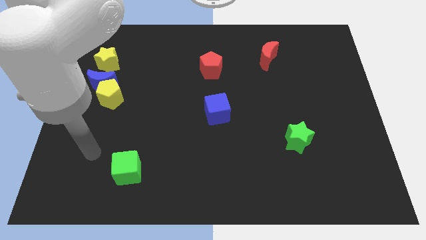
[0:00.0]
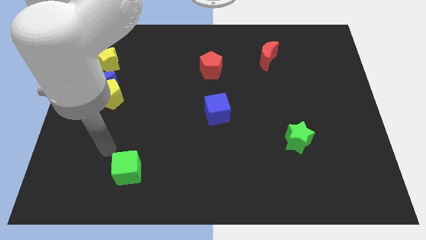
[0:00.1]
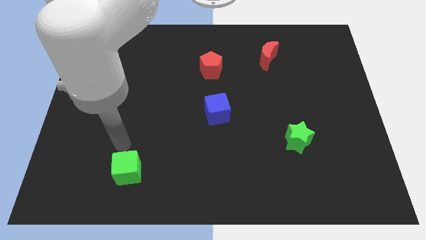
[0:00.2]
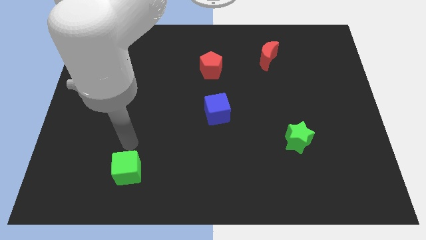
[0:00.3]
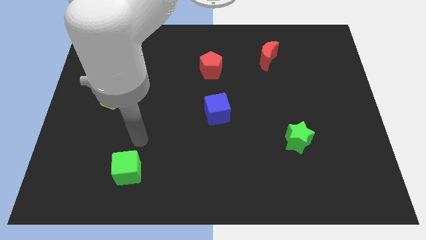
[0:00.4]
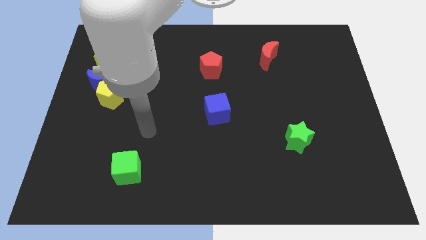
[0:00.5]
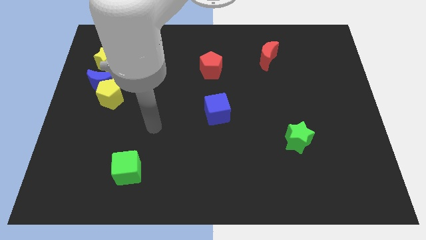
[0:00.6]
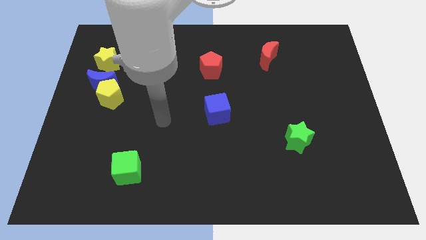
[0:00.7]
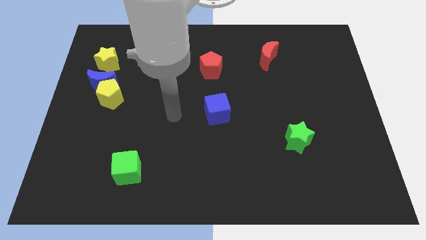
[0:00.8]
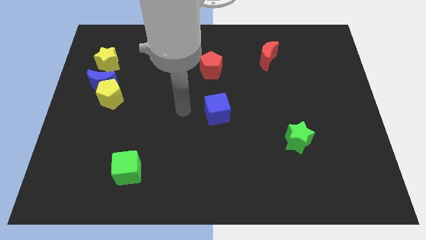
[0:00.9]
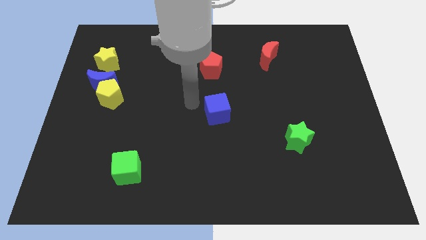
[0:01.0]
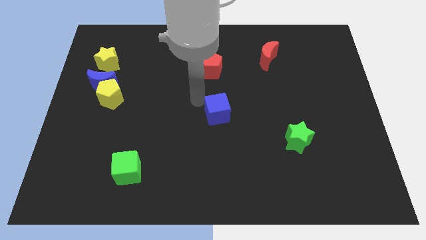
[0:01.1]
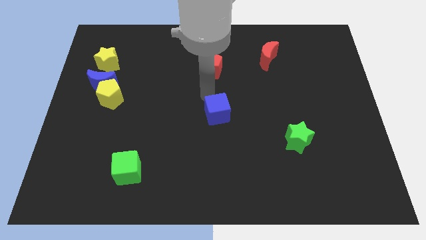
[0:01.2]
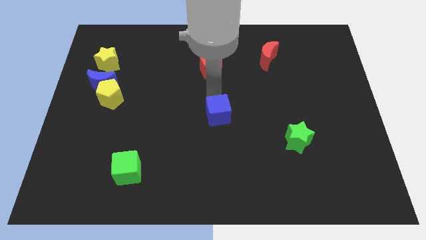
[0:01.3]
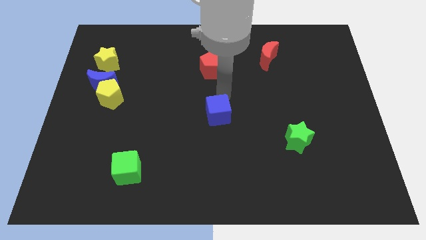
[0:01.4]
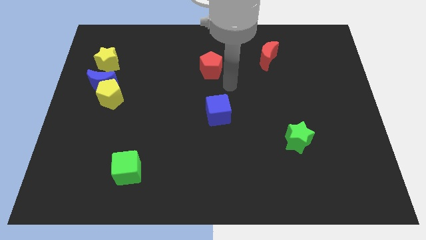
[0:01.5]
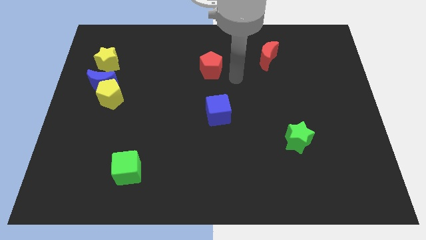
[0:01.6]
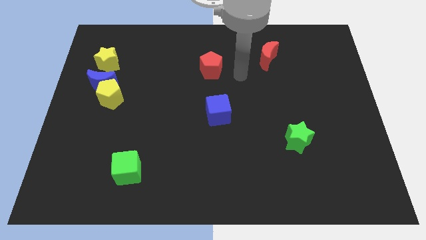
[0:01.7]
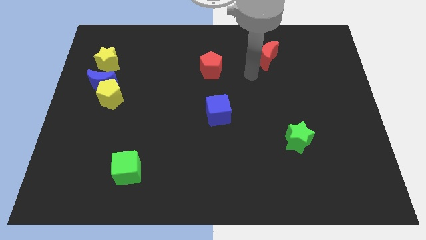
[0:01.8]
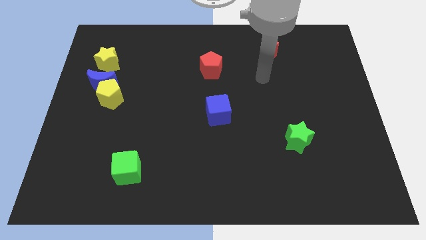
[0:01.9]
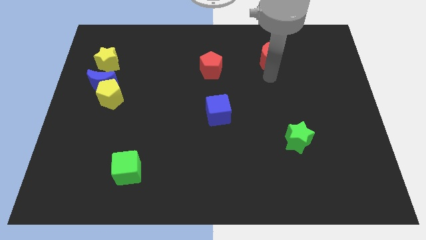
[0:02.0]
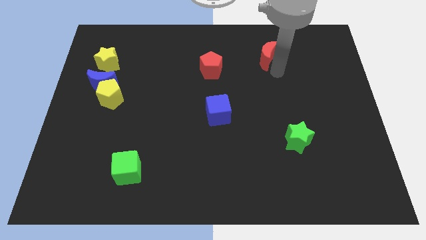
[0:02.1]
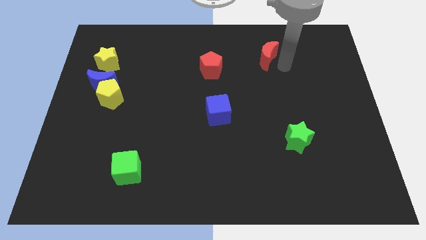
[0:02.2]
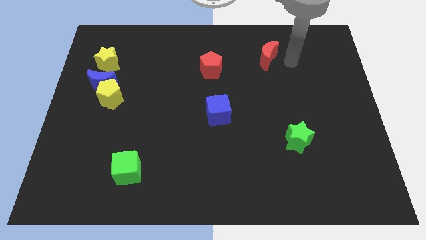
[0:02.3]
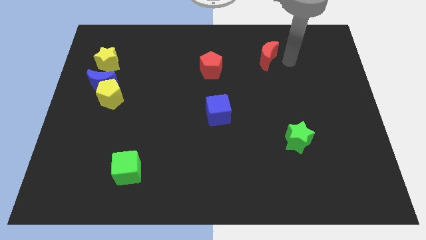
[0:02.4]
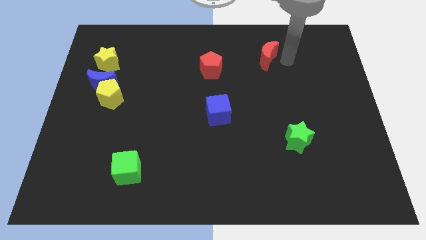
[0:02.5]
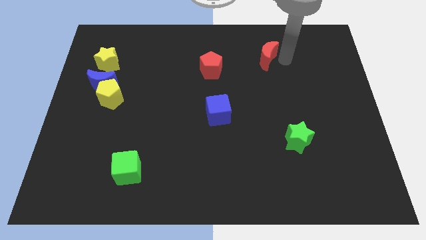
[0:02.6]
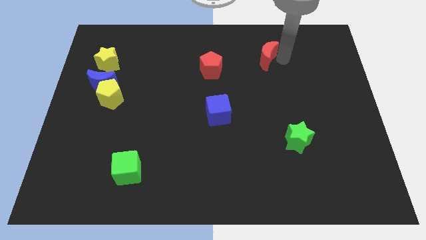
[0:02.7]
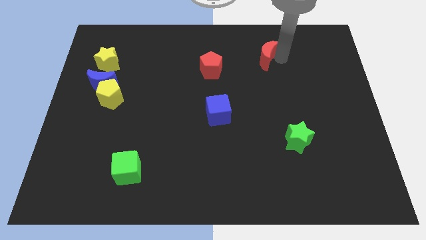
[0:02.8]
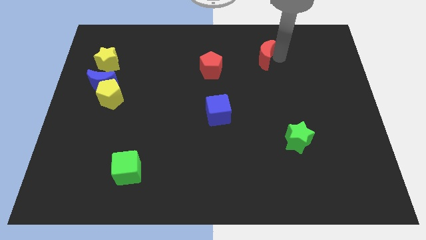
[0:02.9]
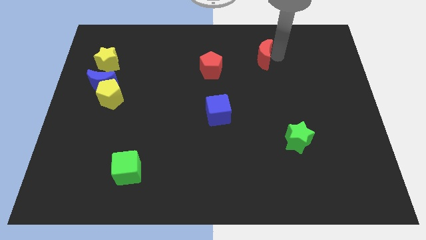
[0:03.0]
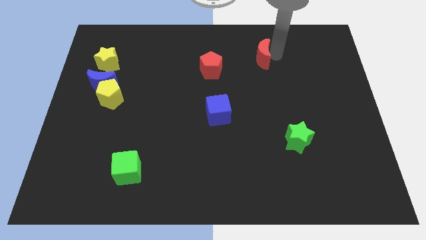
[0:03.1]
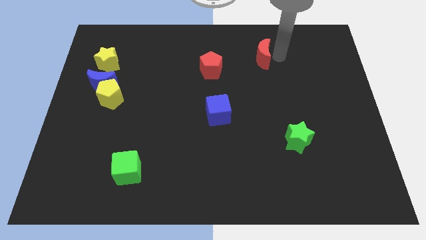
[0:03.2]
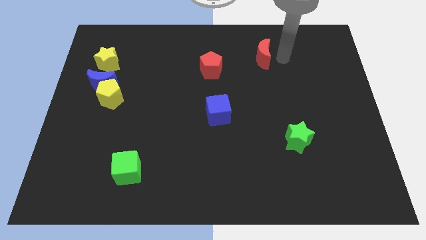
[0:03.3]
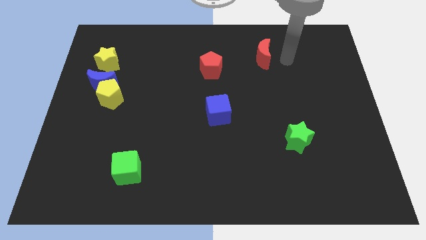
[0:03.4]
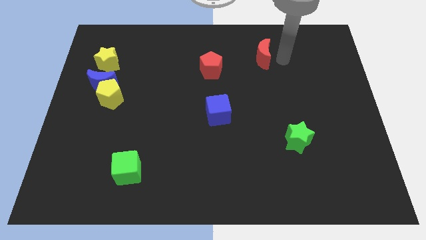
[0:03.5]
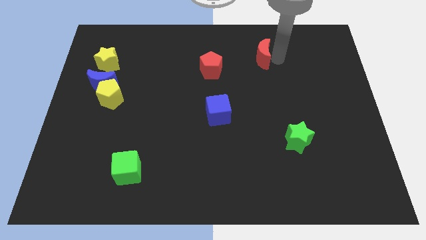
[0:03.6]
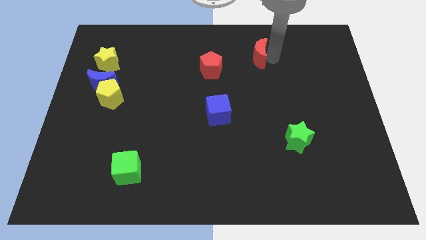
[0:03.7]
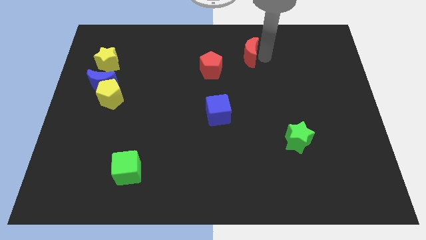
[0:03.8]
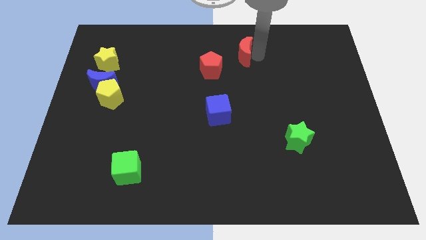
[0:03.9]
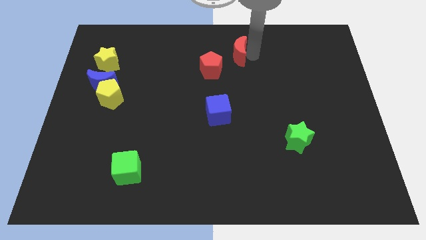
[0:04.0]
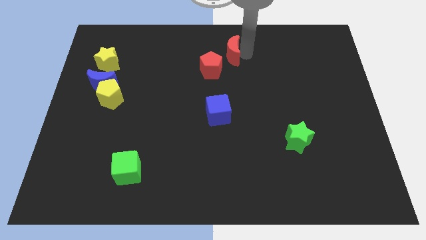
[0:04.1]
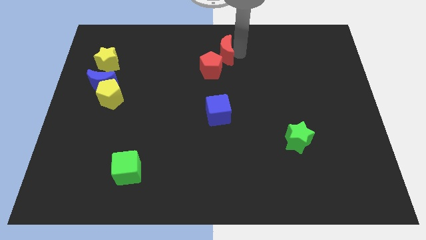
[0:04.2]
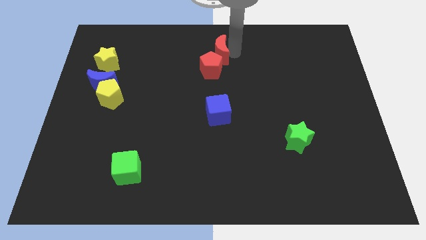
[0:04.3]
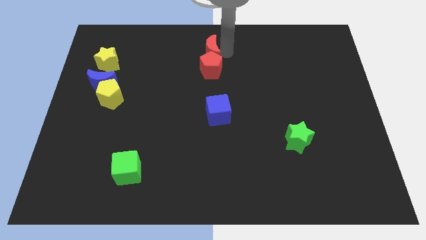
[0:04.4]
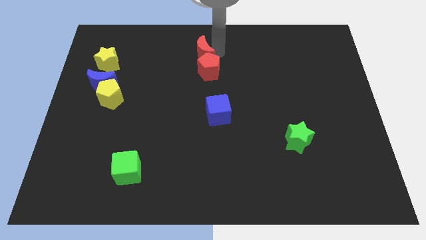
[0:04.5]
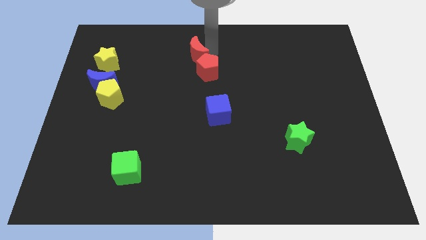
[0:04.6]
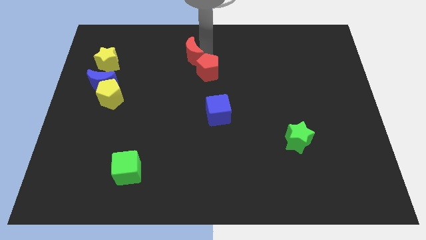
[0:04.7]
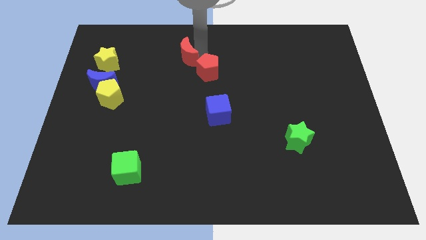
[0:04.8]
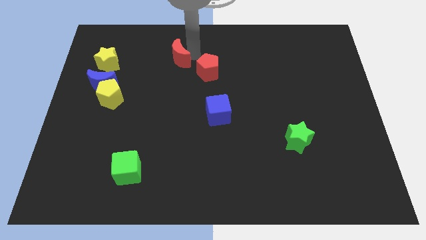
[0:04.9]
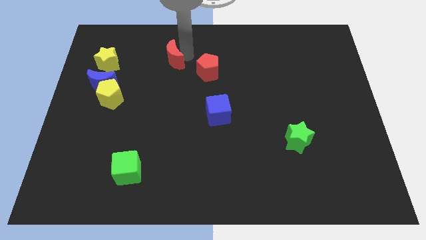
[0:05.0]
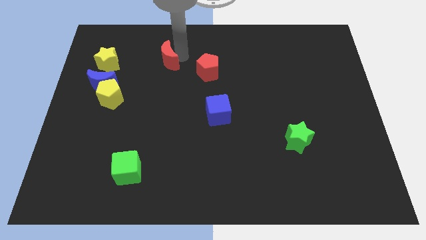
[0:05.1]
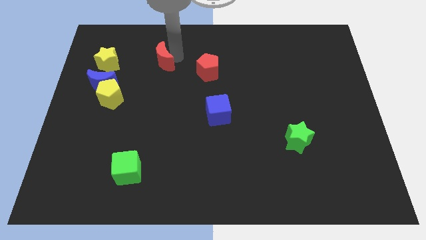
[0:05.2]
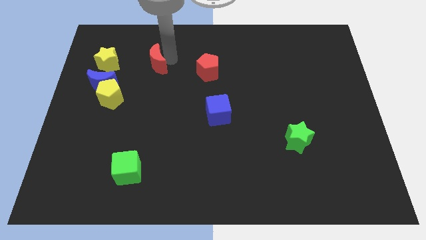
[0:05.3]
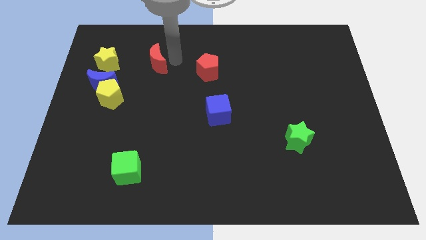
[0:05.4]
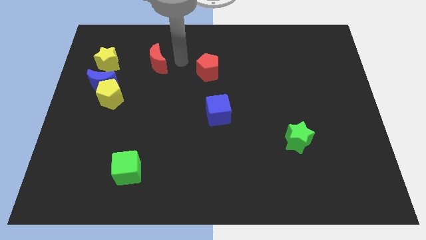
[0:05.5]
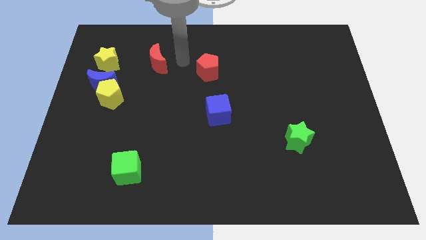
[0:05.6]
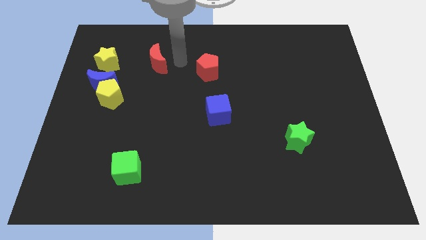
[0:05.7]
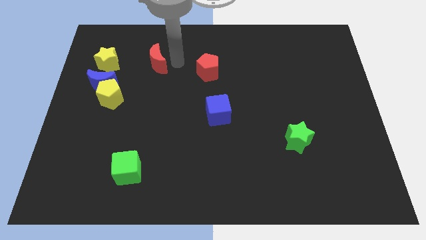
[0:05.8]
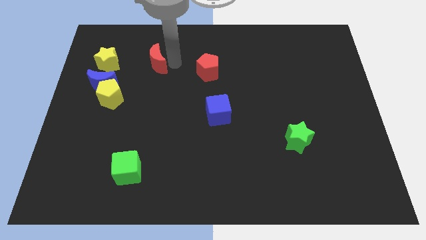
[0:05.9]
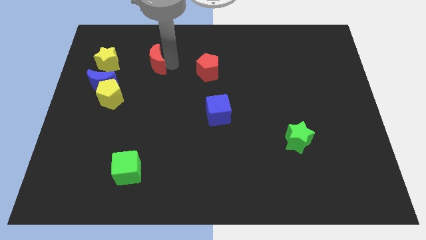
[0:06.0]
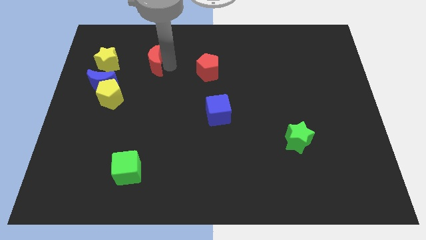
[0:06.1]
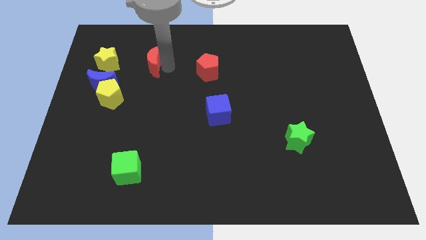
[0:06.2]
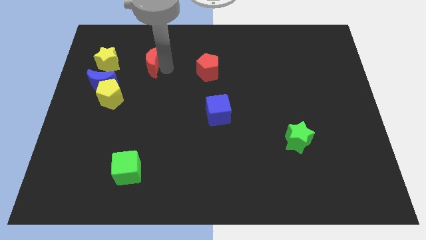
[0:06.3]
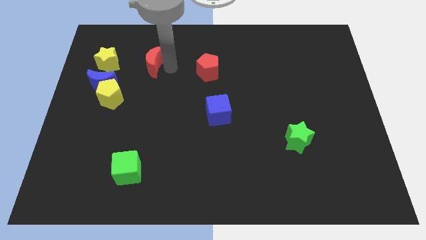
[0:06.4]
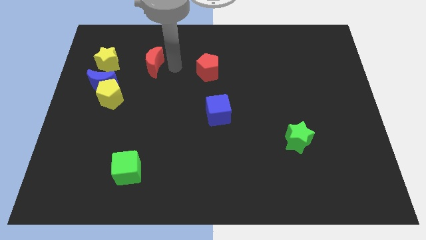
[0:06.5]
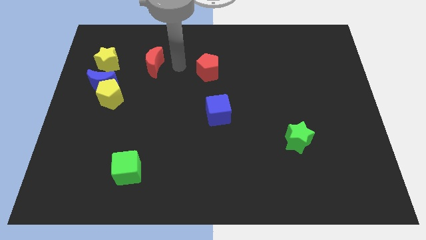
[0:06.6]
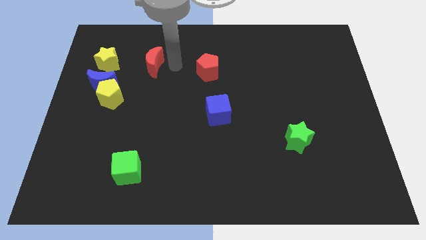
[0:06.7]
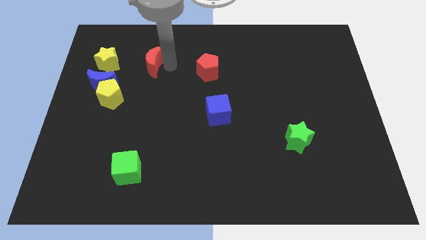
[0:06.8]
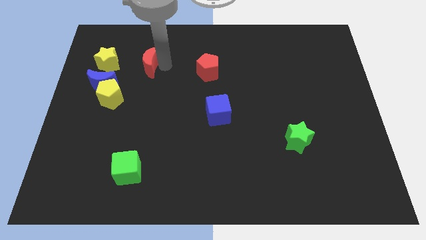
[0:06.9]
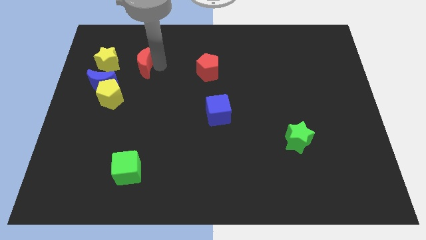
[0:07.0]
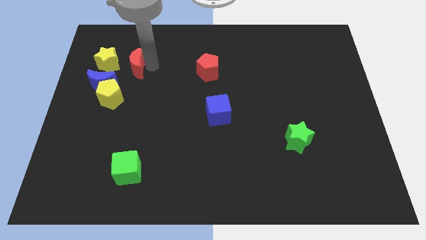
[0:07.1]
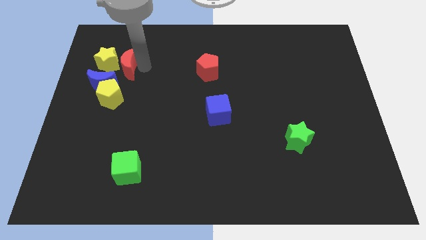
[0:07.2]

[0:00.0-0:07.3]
put the red moon next to the yellow star
